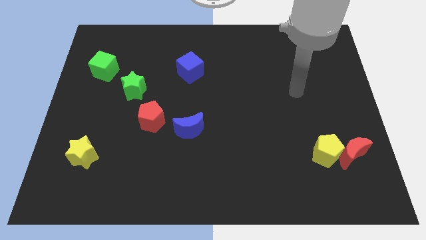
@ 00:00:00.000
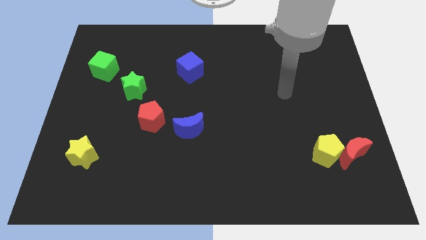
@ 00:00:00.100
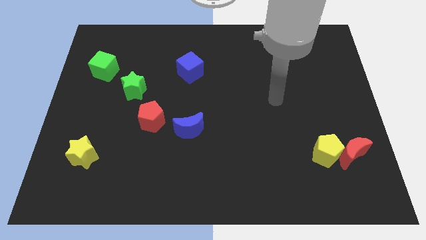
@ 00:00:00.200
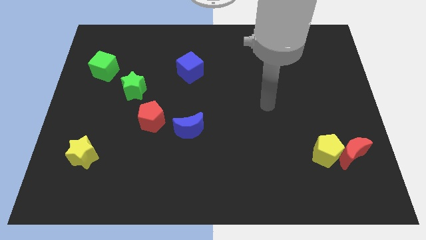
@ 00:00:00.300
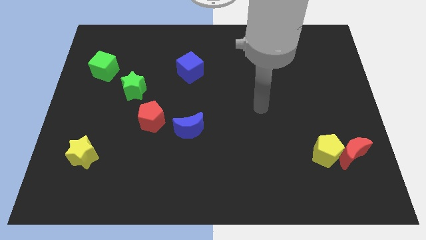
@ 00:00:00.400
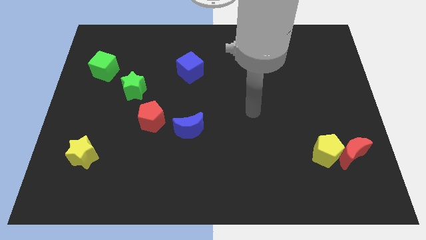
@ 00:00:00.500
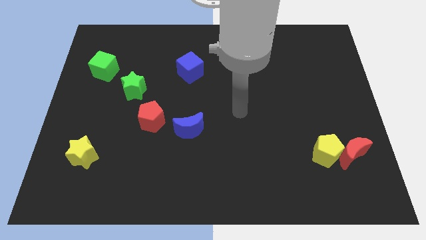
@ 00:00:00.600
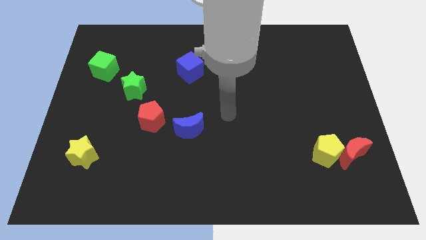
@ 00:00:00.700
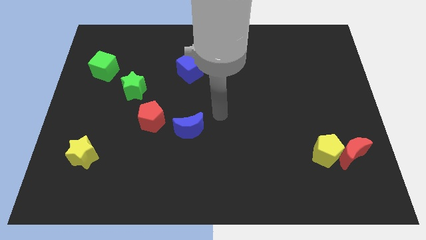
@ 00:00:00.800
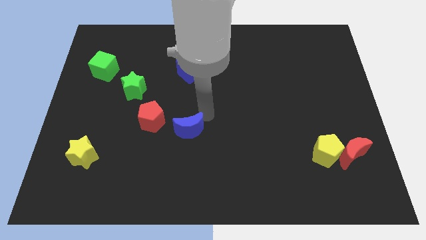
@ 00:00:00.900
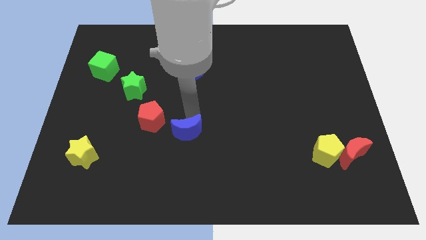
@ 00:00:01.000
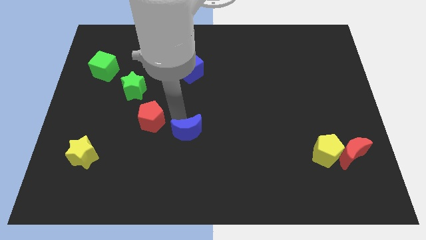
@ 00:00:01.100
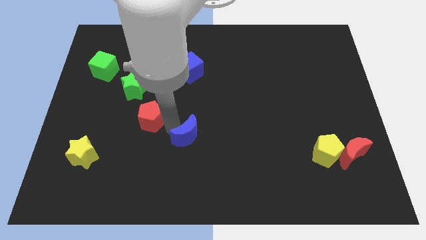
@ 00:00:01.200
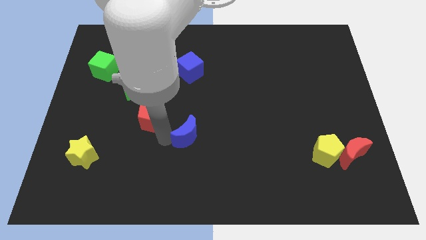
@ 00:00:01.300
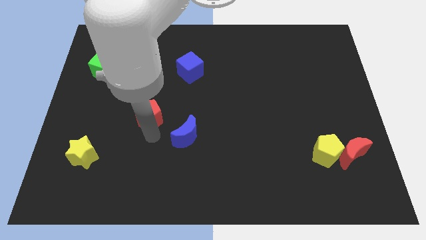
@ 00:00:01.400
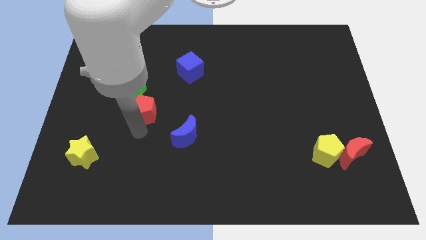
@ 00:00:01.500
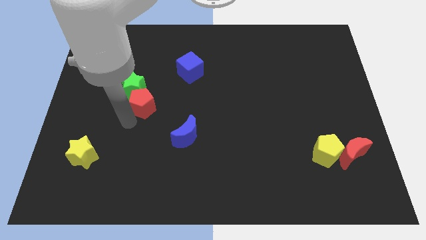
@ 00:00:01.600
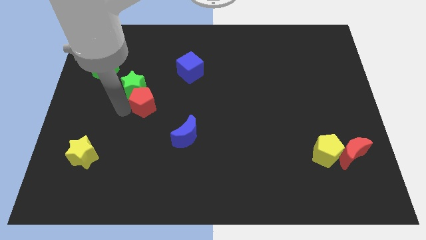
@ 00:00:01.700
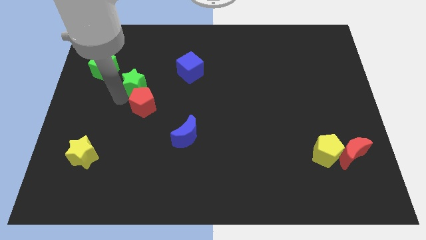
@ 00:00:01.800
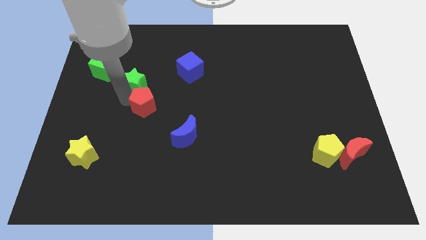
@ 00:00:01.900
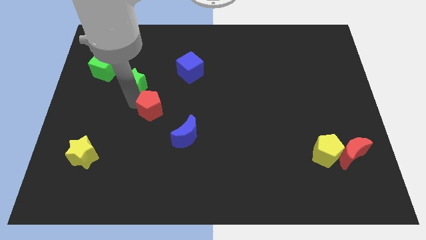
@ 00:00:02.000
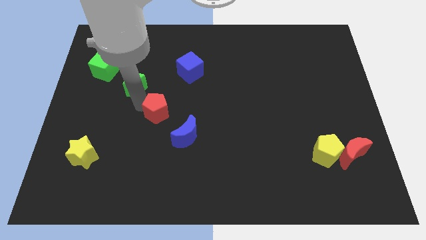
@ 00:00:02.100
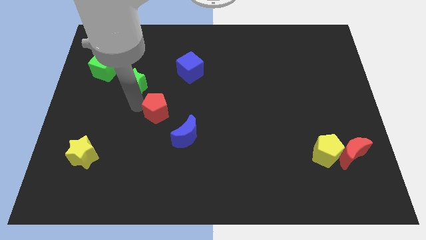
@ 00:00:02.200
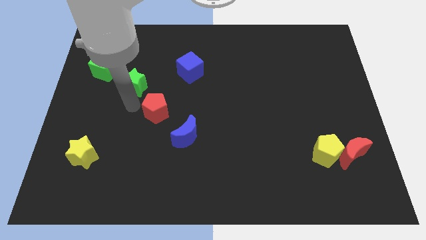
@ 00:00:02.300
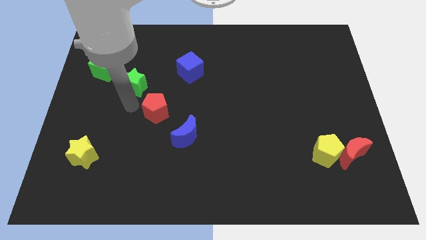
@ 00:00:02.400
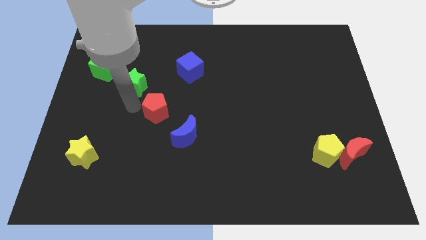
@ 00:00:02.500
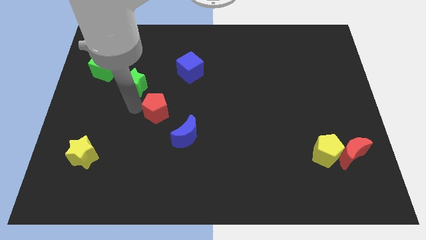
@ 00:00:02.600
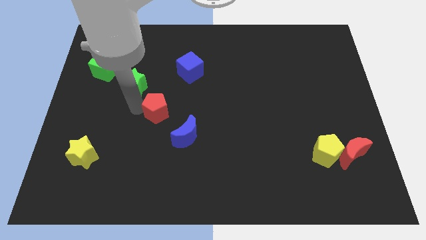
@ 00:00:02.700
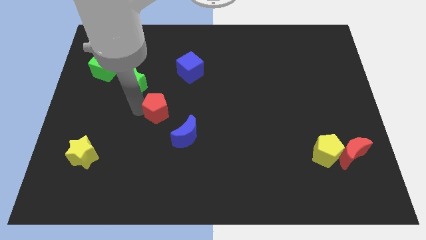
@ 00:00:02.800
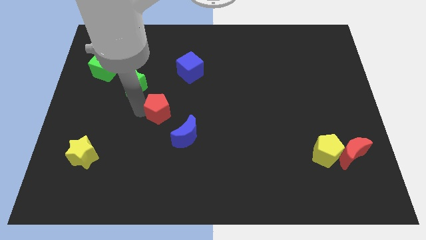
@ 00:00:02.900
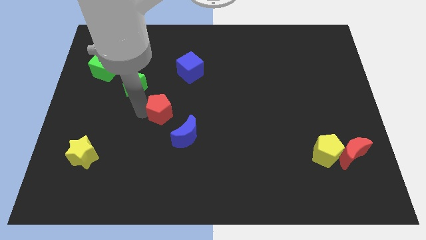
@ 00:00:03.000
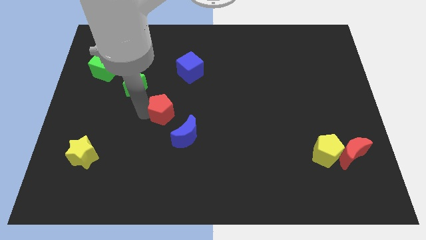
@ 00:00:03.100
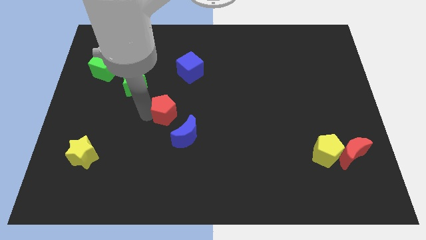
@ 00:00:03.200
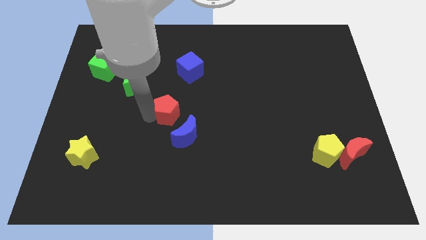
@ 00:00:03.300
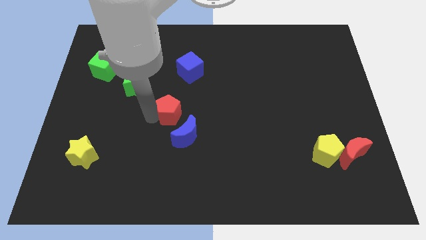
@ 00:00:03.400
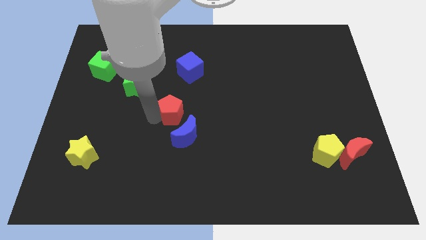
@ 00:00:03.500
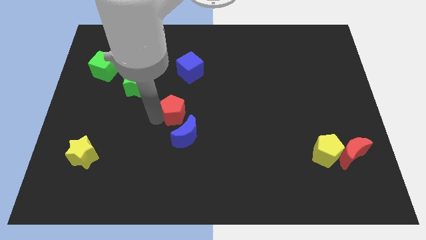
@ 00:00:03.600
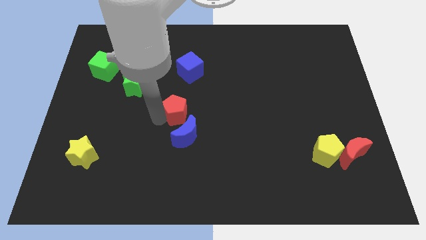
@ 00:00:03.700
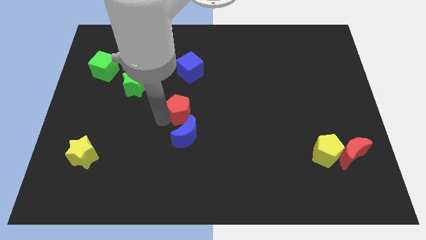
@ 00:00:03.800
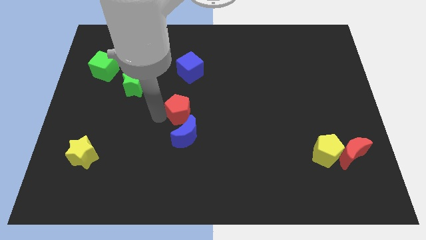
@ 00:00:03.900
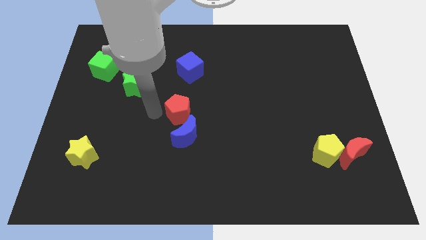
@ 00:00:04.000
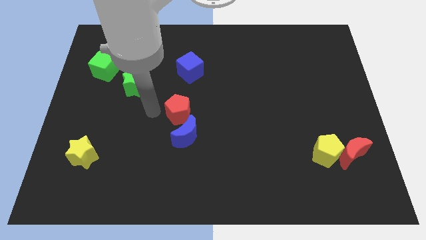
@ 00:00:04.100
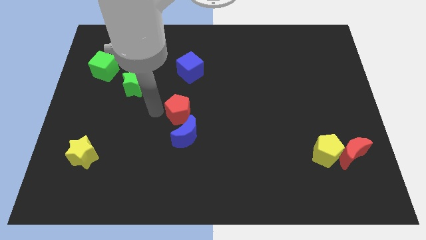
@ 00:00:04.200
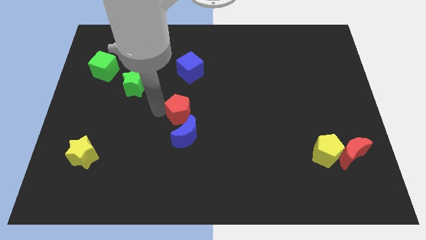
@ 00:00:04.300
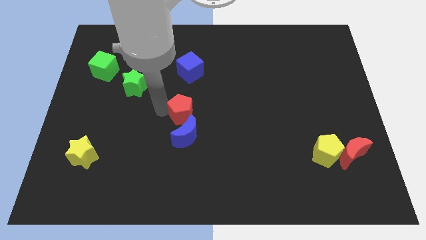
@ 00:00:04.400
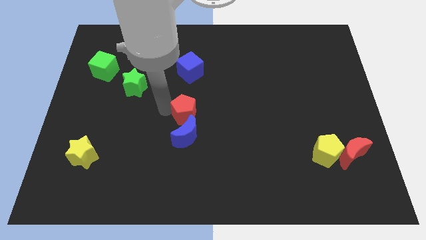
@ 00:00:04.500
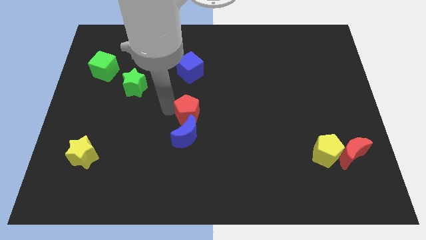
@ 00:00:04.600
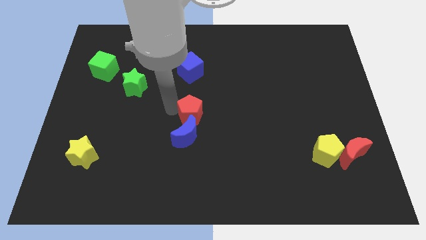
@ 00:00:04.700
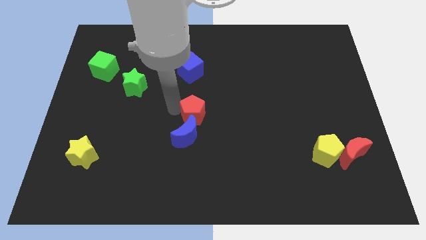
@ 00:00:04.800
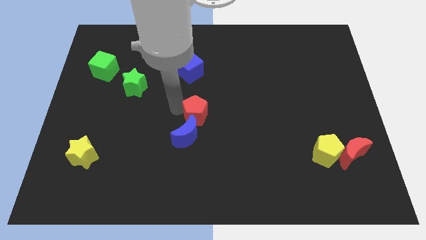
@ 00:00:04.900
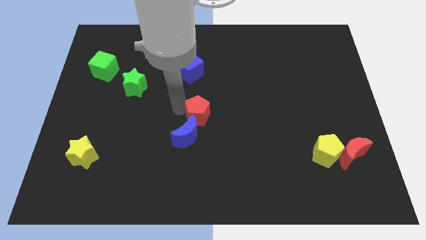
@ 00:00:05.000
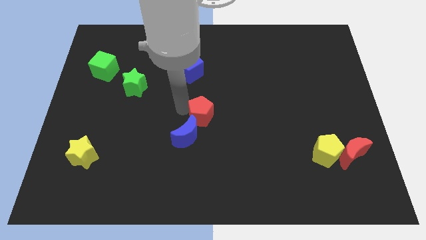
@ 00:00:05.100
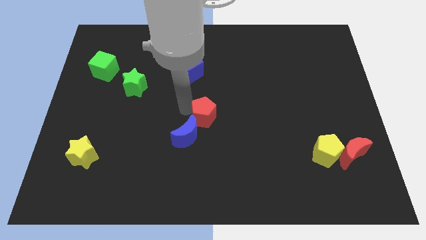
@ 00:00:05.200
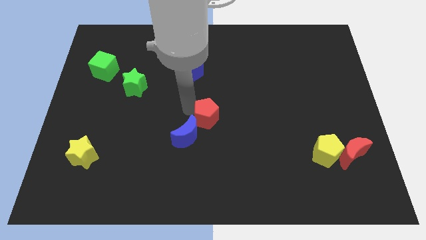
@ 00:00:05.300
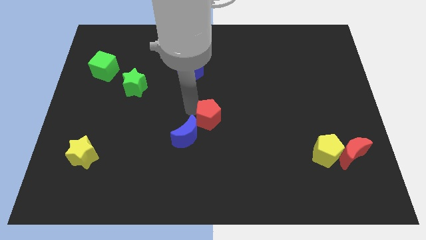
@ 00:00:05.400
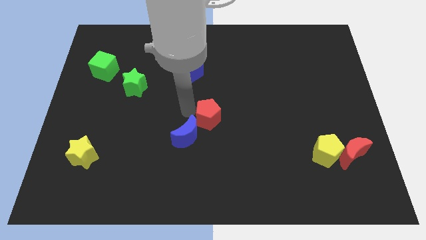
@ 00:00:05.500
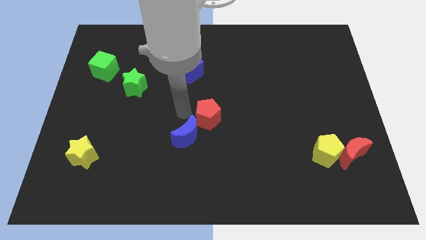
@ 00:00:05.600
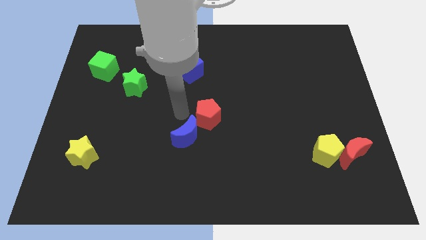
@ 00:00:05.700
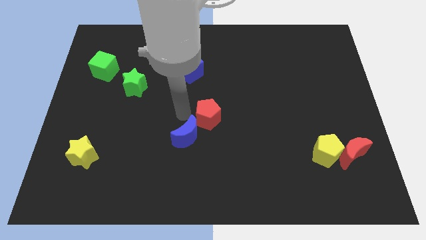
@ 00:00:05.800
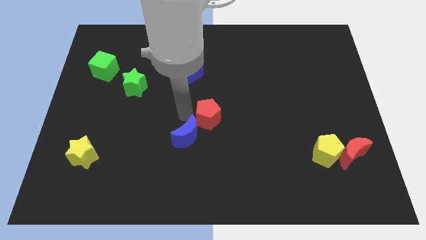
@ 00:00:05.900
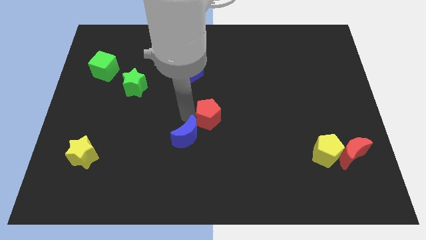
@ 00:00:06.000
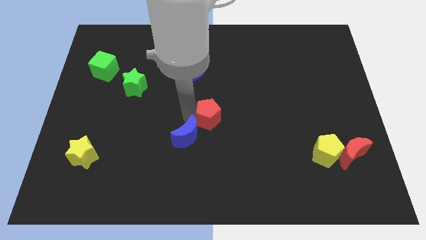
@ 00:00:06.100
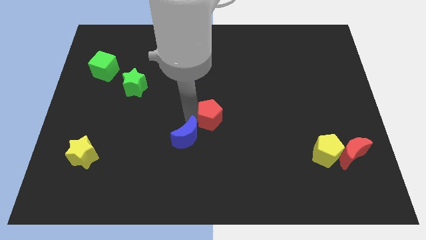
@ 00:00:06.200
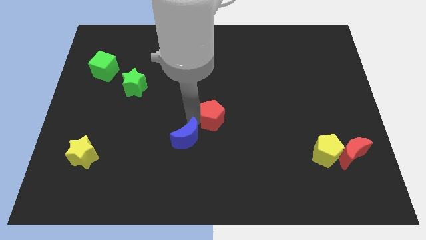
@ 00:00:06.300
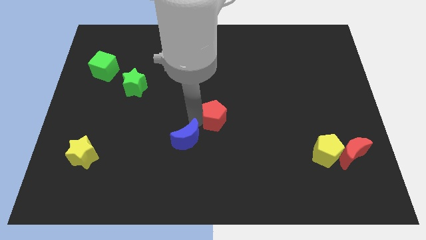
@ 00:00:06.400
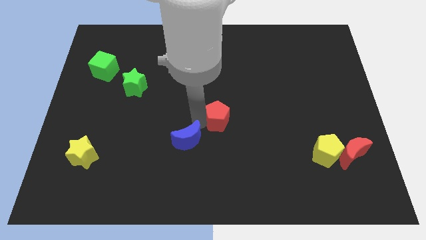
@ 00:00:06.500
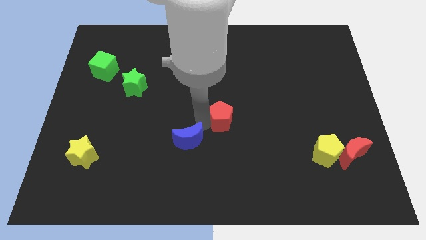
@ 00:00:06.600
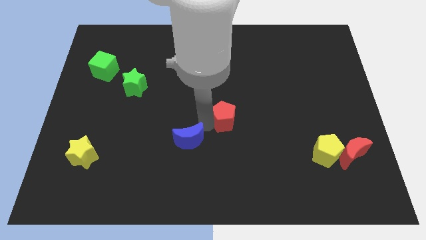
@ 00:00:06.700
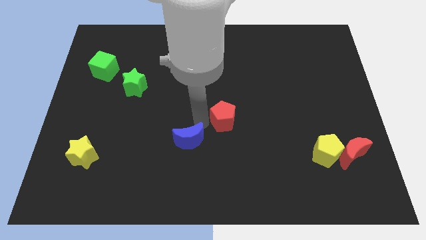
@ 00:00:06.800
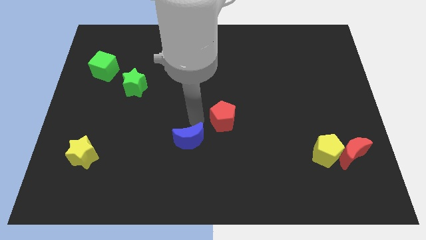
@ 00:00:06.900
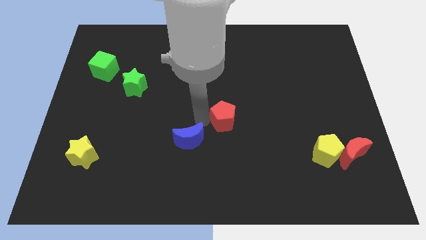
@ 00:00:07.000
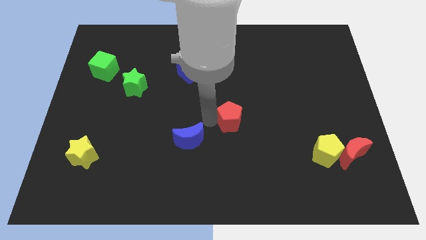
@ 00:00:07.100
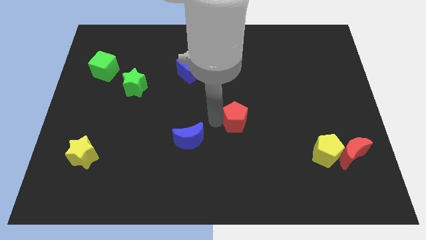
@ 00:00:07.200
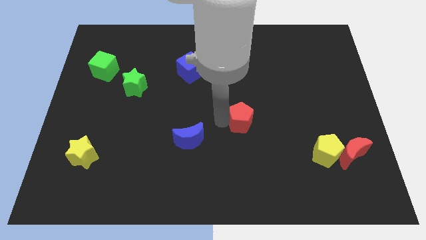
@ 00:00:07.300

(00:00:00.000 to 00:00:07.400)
slide the red pentagon to the right
